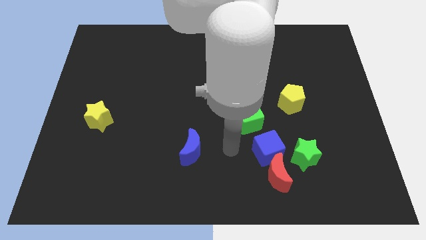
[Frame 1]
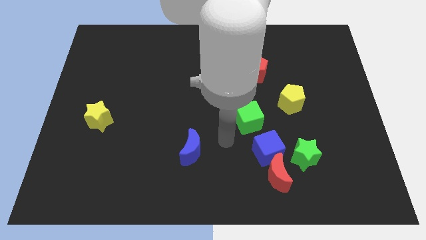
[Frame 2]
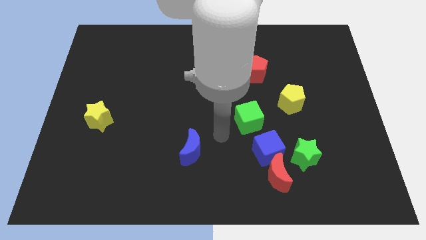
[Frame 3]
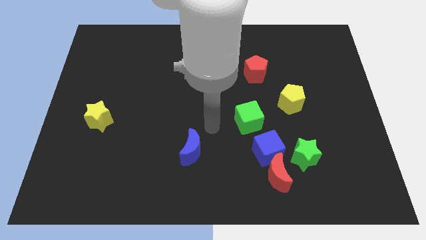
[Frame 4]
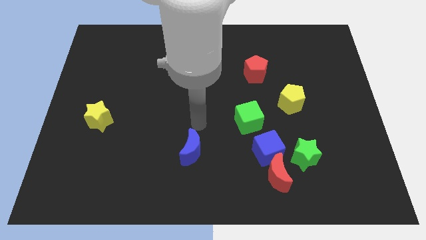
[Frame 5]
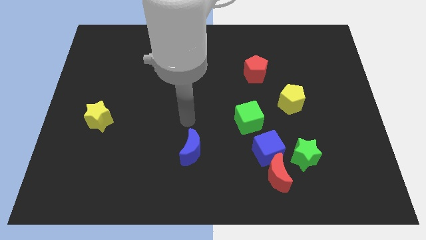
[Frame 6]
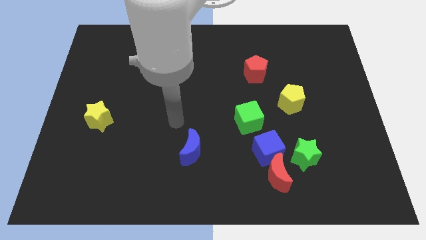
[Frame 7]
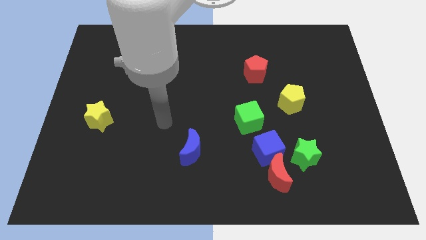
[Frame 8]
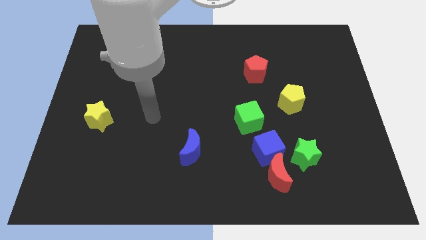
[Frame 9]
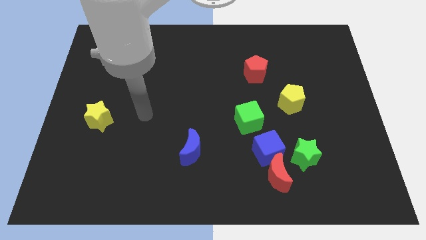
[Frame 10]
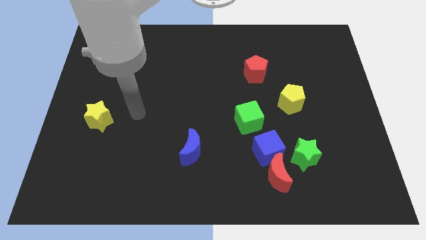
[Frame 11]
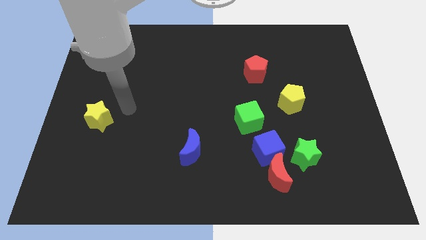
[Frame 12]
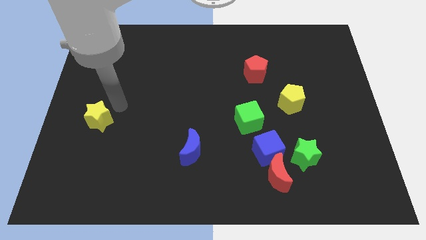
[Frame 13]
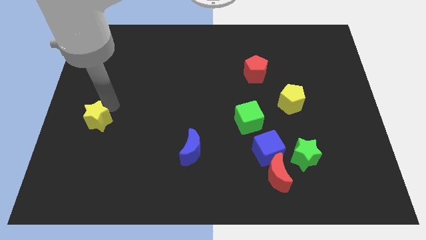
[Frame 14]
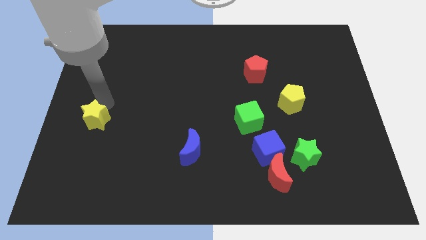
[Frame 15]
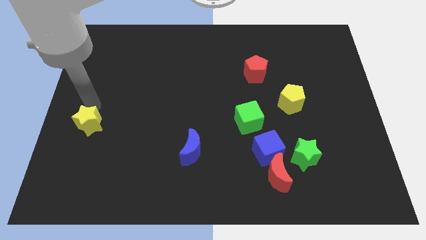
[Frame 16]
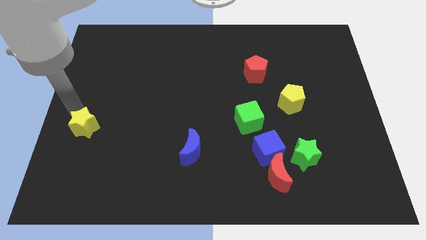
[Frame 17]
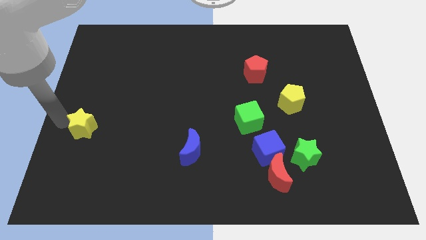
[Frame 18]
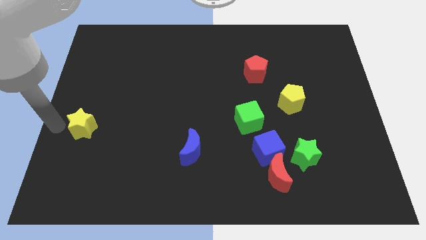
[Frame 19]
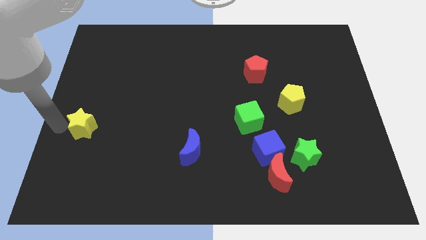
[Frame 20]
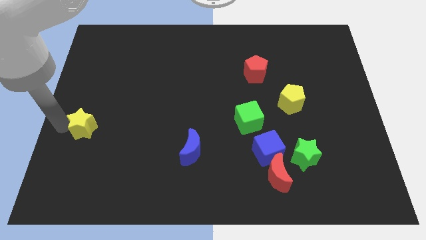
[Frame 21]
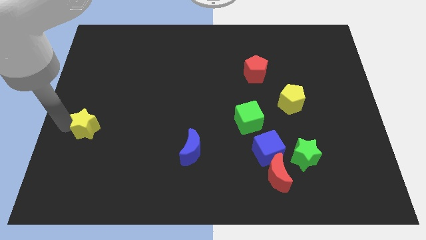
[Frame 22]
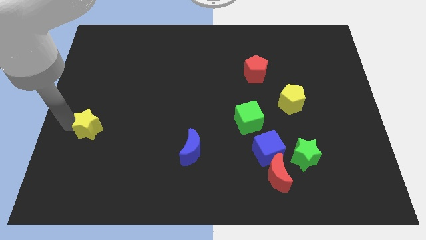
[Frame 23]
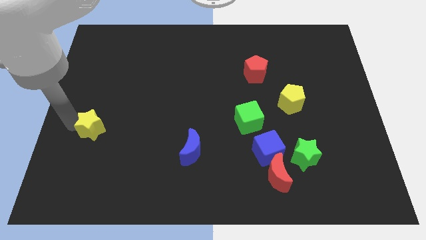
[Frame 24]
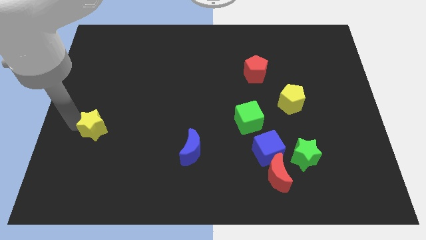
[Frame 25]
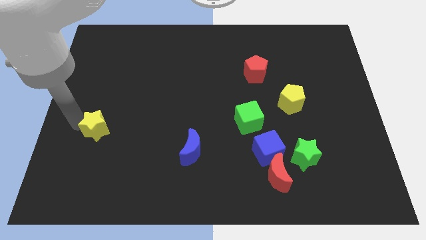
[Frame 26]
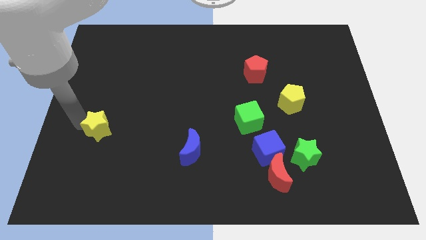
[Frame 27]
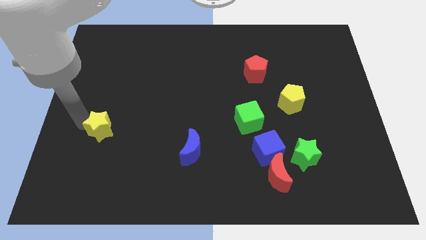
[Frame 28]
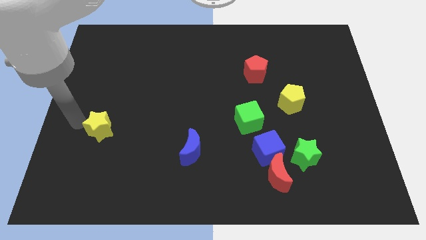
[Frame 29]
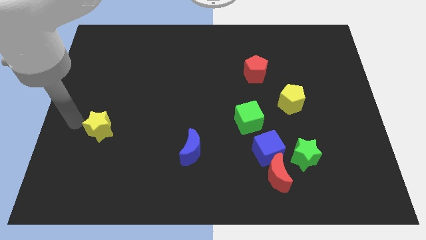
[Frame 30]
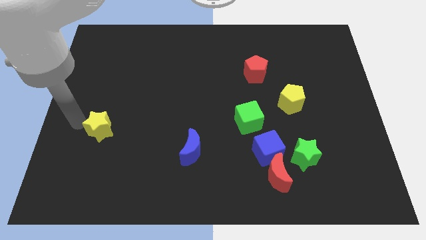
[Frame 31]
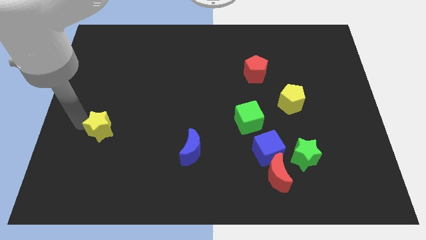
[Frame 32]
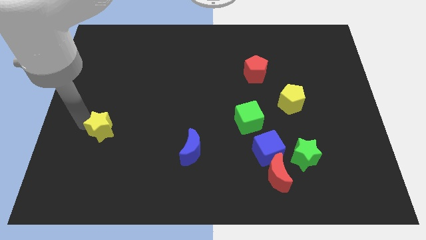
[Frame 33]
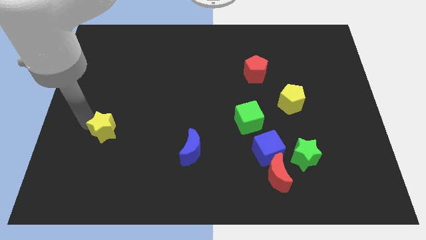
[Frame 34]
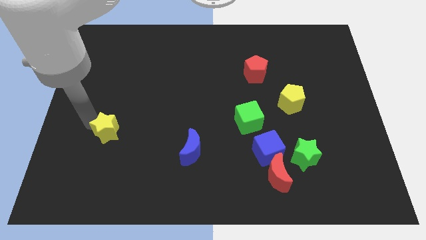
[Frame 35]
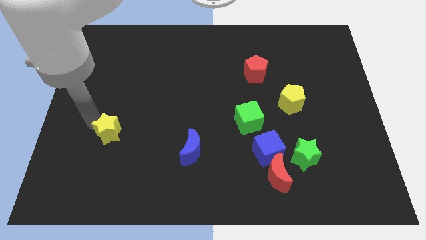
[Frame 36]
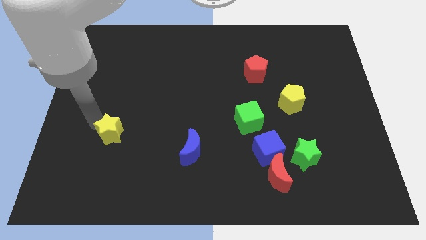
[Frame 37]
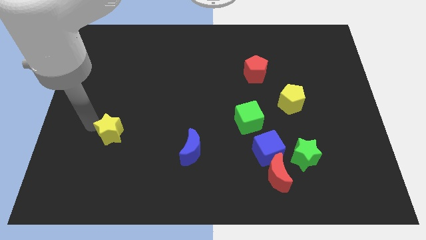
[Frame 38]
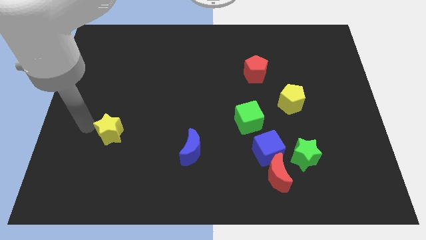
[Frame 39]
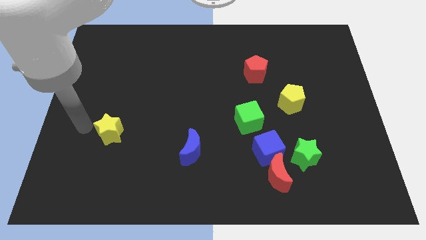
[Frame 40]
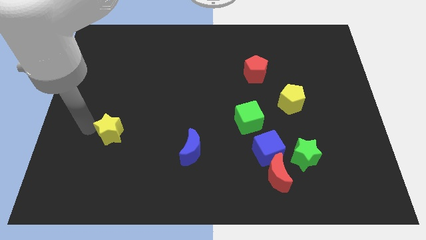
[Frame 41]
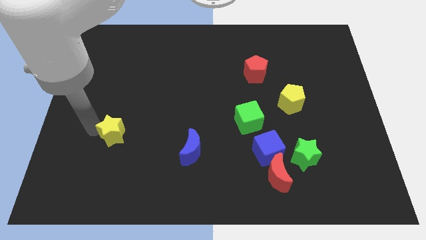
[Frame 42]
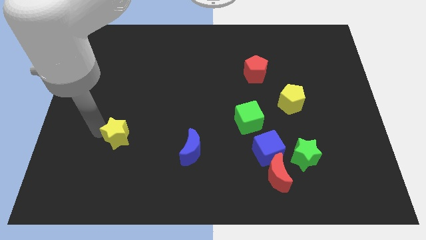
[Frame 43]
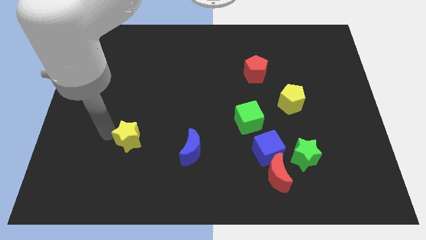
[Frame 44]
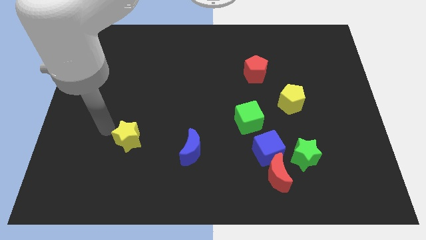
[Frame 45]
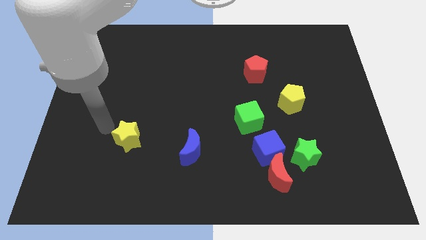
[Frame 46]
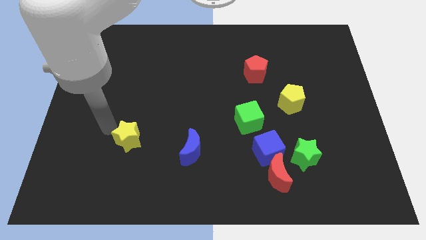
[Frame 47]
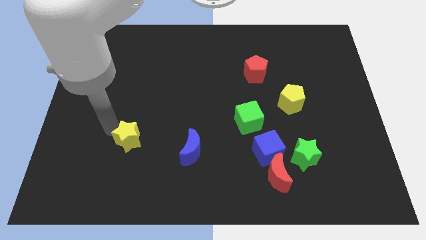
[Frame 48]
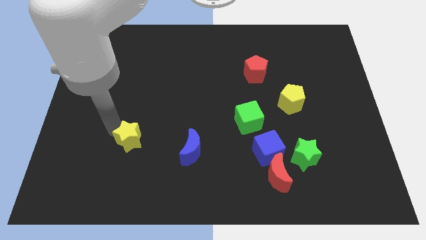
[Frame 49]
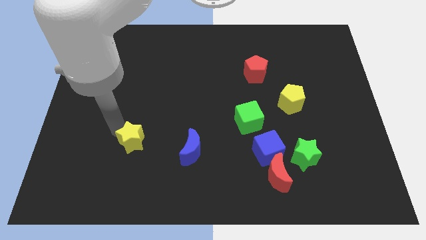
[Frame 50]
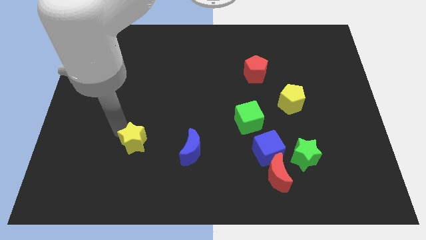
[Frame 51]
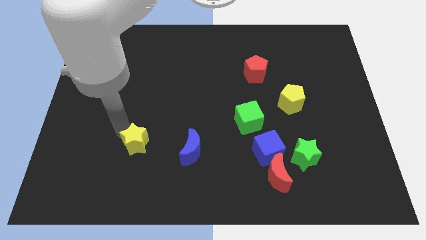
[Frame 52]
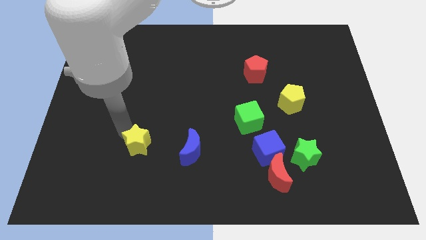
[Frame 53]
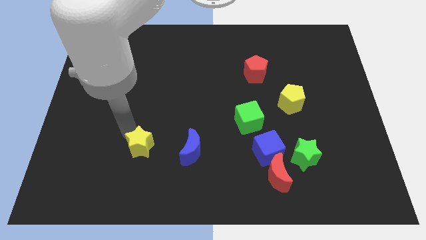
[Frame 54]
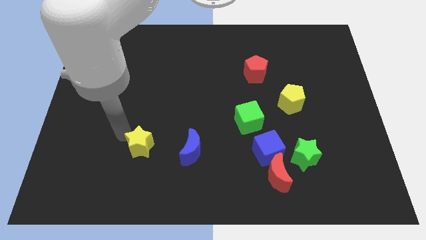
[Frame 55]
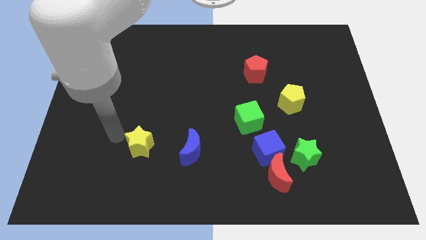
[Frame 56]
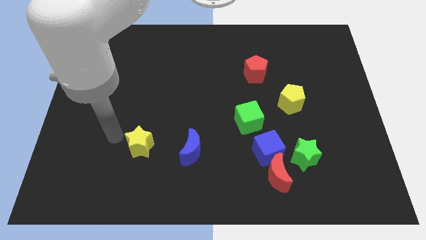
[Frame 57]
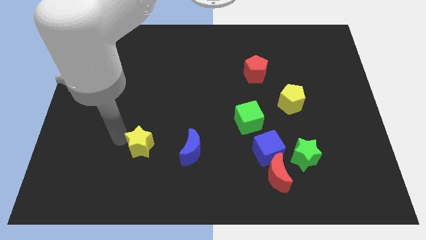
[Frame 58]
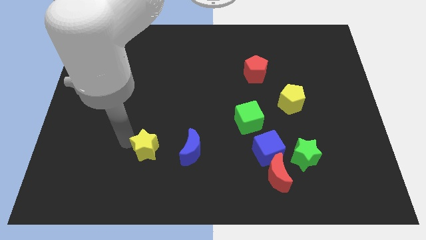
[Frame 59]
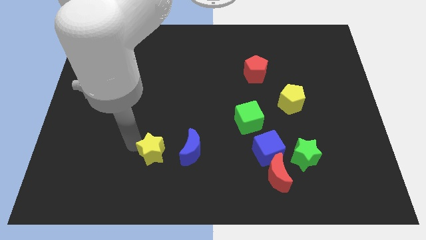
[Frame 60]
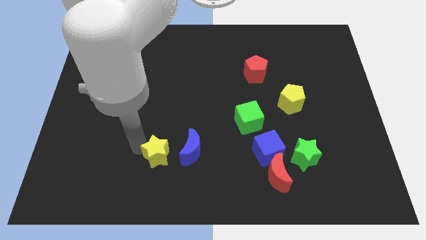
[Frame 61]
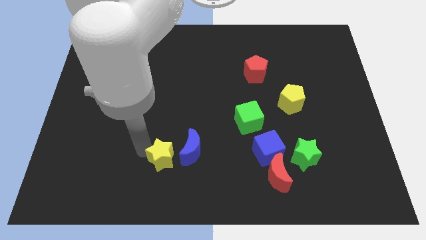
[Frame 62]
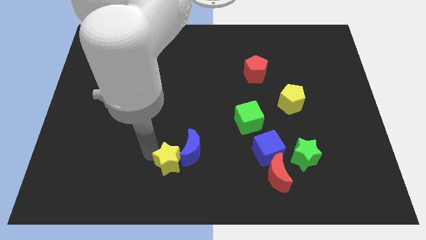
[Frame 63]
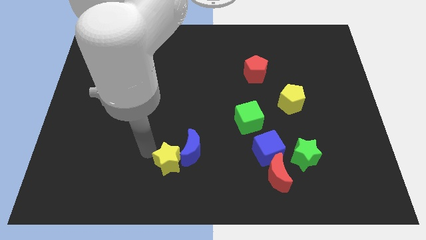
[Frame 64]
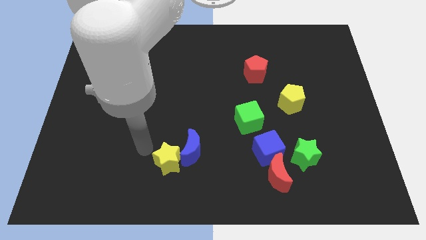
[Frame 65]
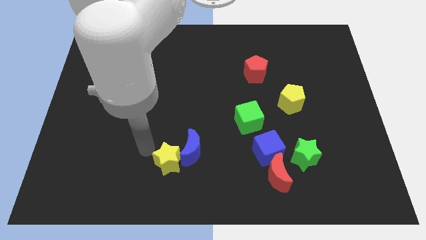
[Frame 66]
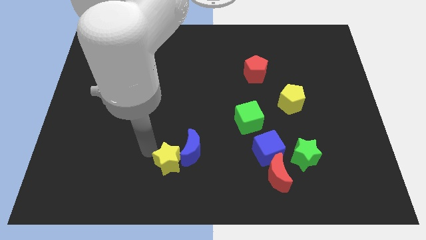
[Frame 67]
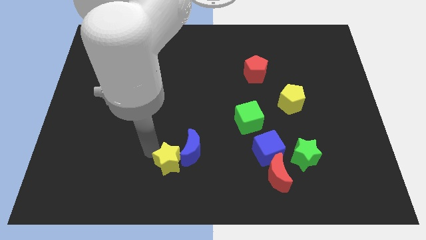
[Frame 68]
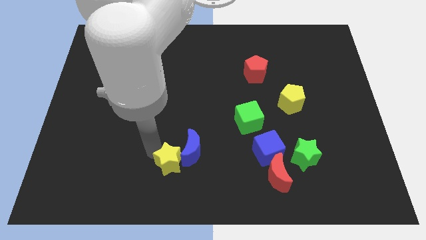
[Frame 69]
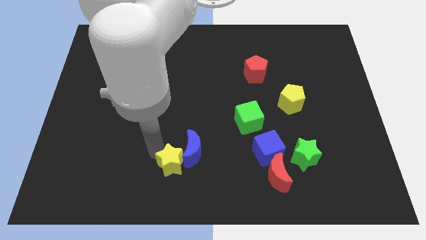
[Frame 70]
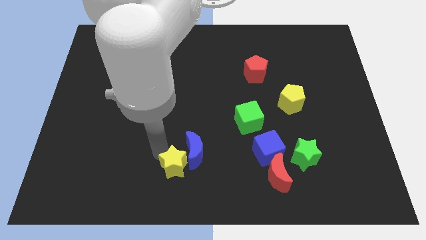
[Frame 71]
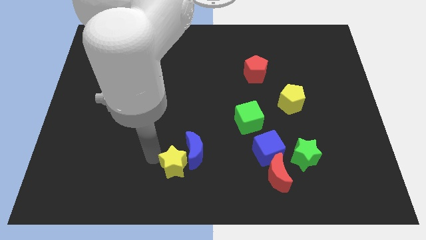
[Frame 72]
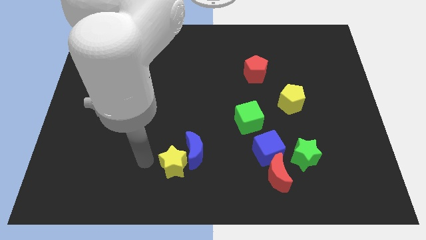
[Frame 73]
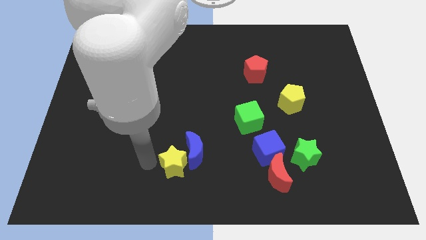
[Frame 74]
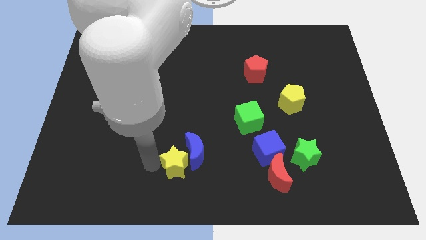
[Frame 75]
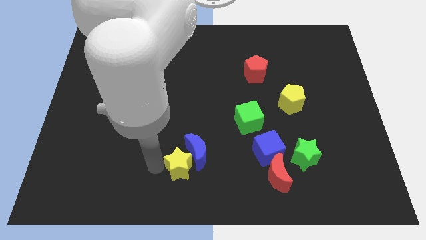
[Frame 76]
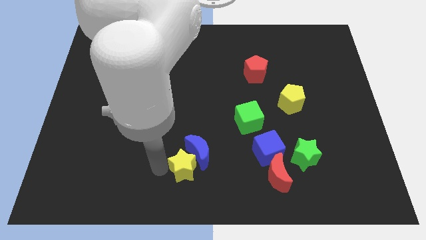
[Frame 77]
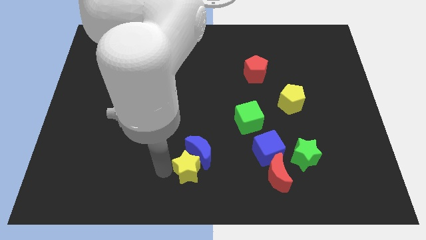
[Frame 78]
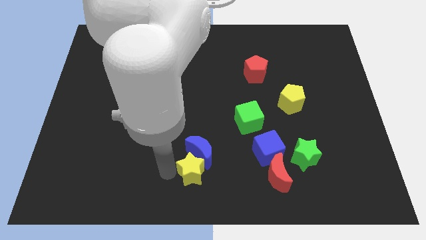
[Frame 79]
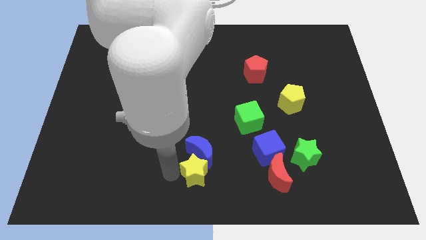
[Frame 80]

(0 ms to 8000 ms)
put the yellow star to the bottom right side of the blue moon
